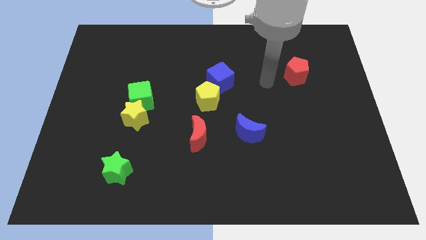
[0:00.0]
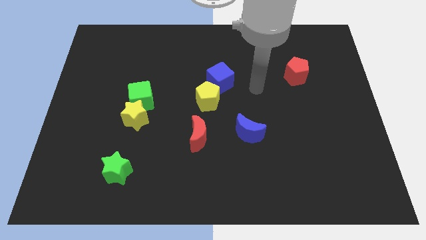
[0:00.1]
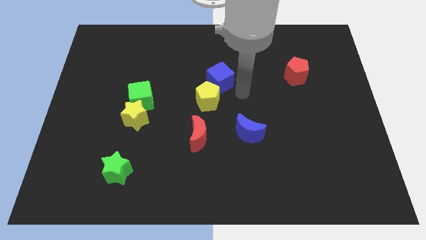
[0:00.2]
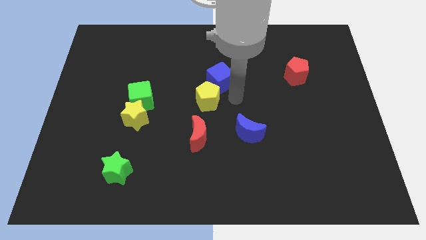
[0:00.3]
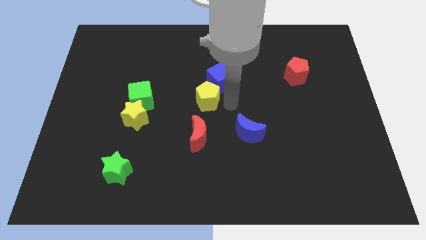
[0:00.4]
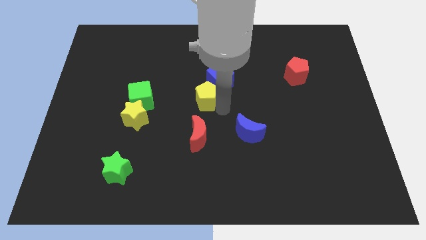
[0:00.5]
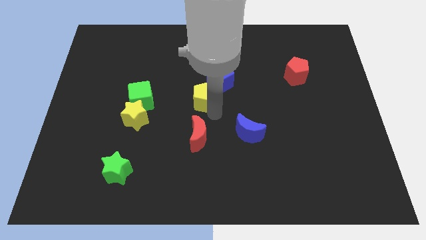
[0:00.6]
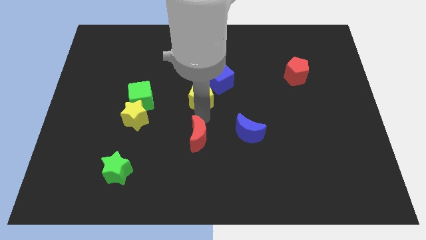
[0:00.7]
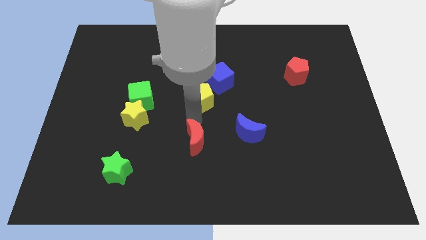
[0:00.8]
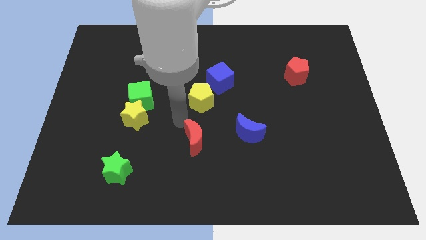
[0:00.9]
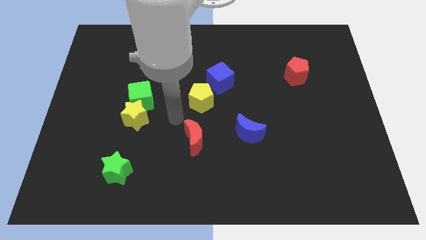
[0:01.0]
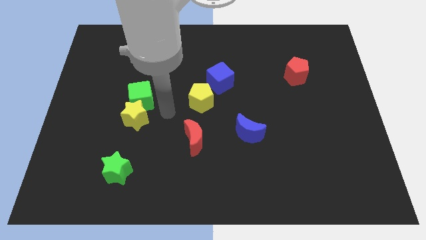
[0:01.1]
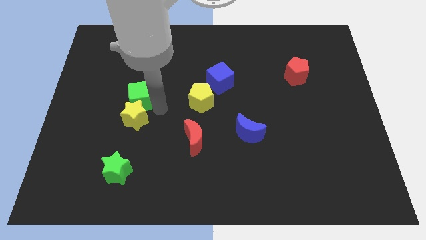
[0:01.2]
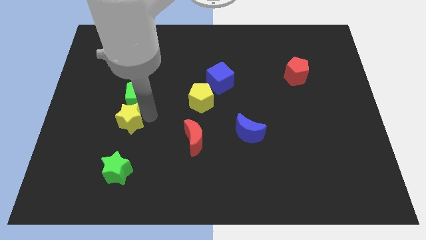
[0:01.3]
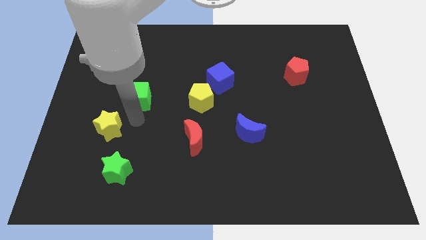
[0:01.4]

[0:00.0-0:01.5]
separate the green cube from the yellow star

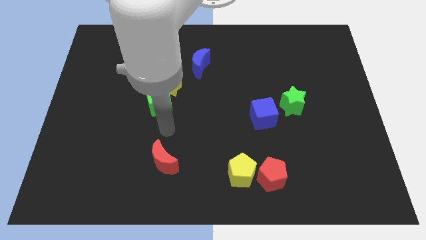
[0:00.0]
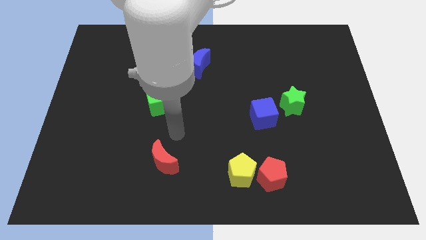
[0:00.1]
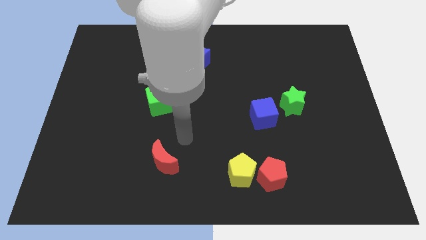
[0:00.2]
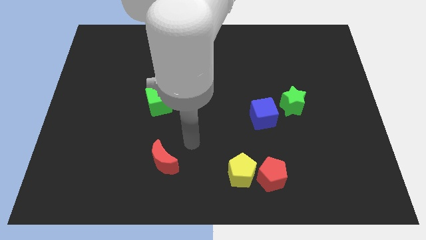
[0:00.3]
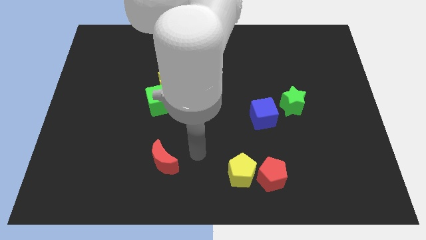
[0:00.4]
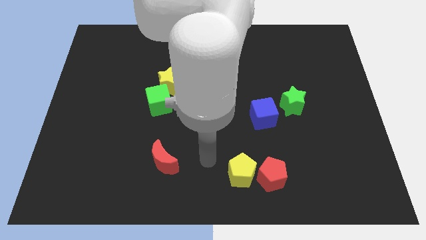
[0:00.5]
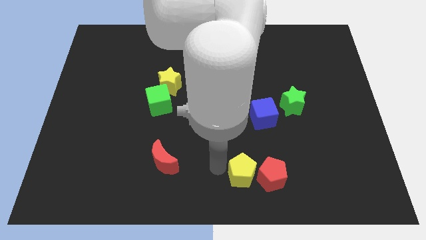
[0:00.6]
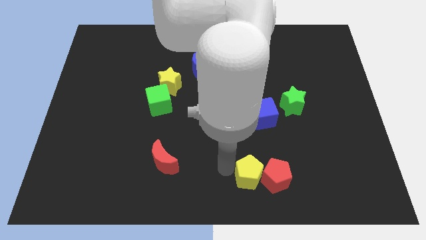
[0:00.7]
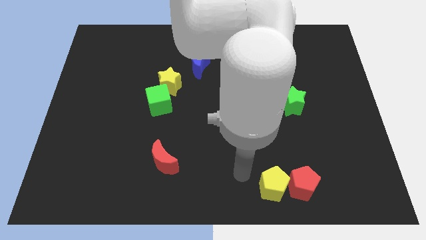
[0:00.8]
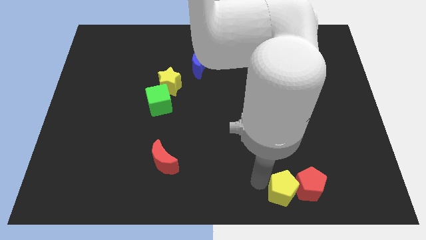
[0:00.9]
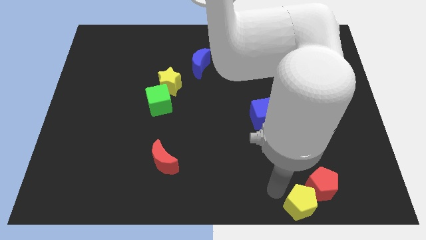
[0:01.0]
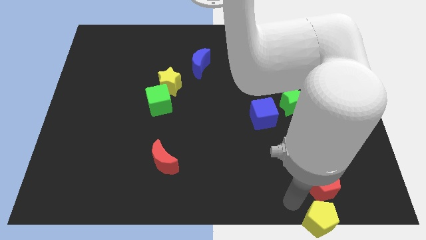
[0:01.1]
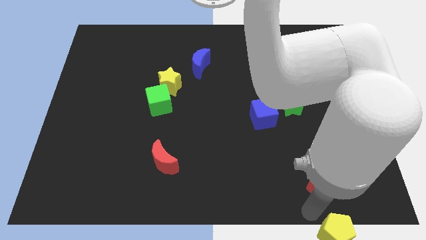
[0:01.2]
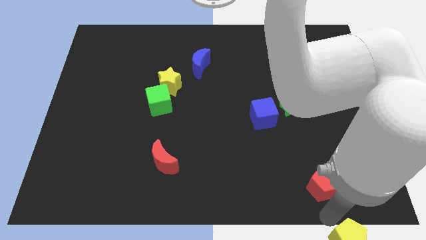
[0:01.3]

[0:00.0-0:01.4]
pull the red pentagon apart from the yellow pentagon

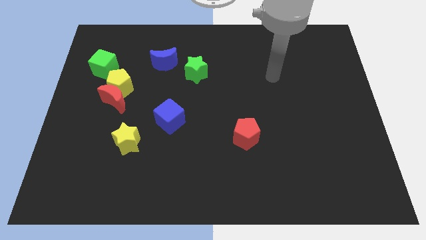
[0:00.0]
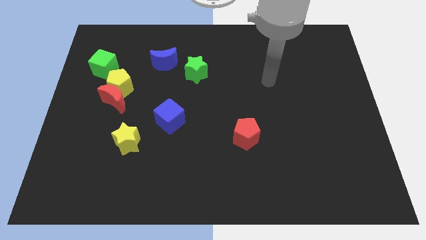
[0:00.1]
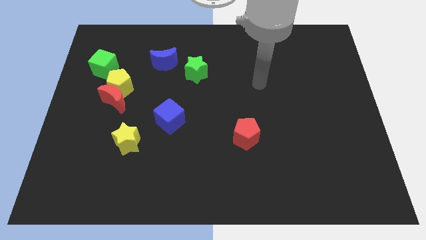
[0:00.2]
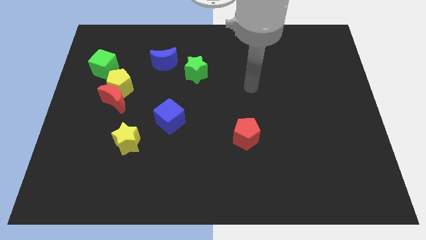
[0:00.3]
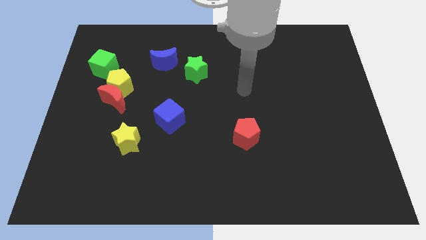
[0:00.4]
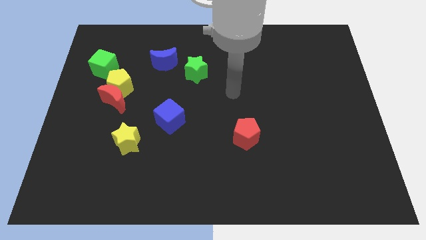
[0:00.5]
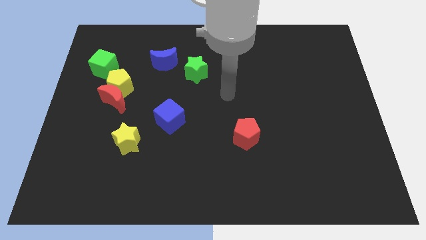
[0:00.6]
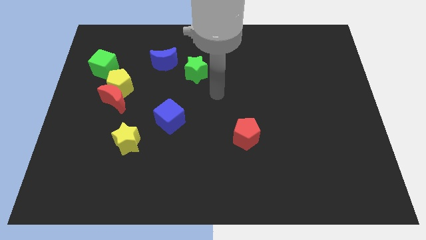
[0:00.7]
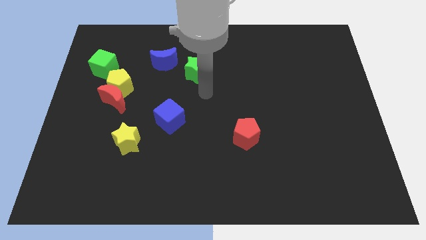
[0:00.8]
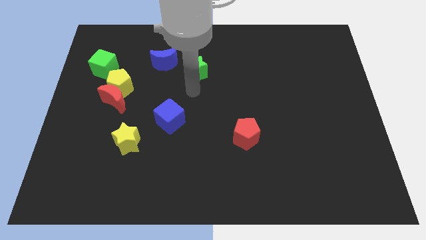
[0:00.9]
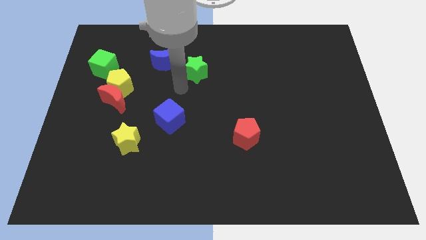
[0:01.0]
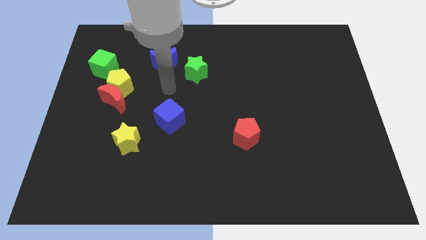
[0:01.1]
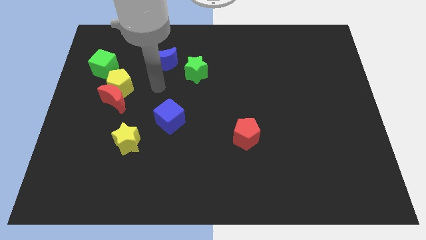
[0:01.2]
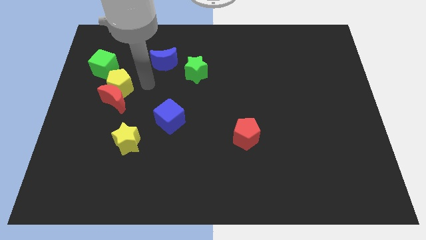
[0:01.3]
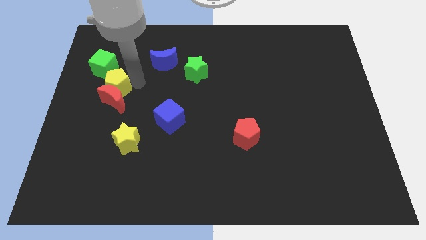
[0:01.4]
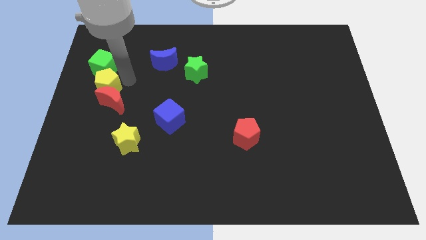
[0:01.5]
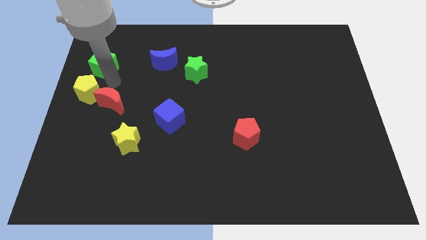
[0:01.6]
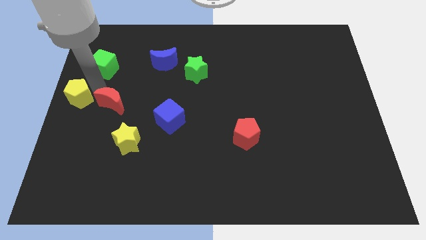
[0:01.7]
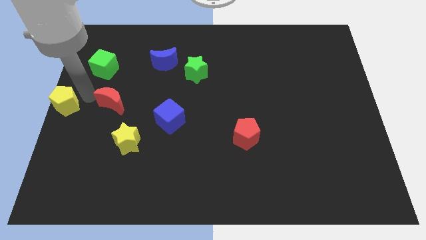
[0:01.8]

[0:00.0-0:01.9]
pull the red moon apart from the yellow pentagon

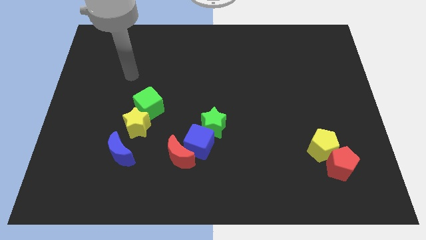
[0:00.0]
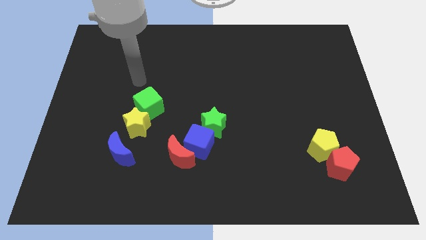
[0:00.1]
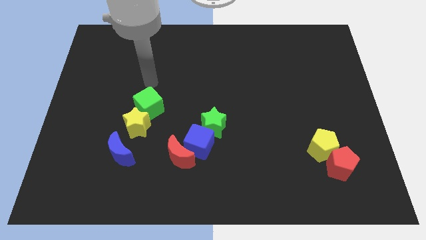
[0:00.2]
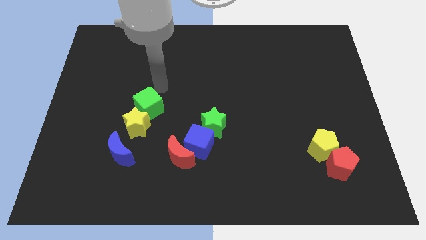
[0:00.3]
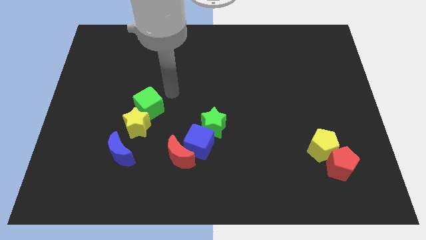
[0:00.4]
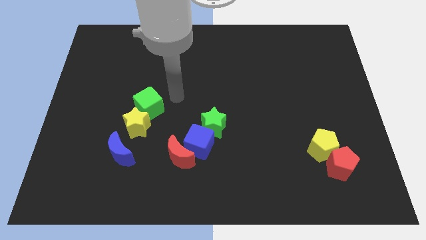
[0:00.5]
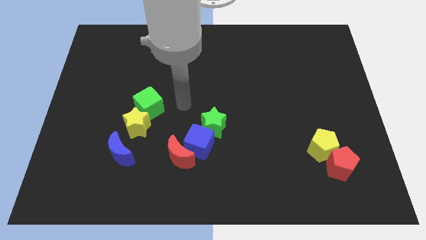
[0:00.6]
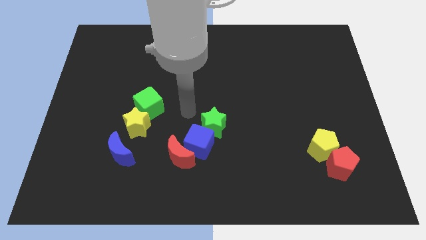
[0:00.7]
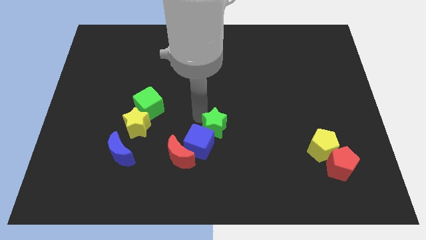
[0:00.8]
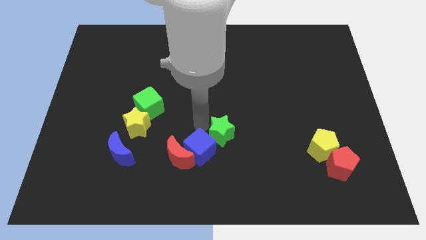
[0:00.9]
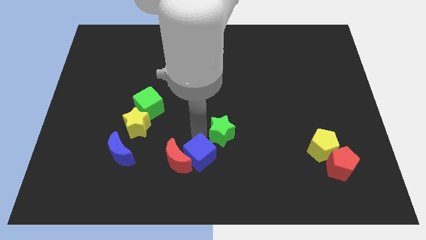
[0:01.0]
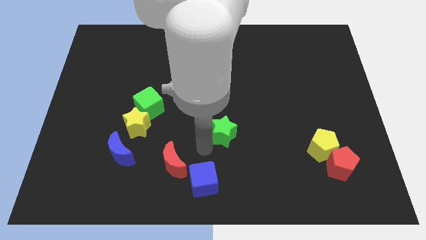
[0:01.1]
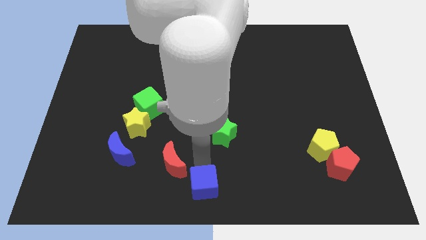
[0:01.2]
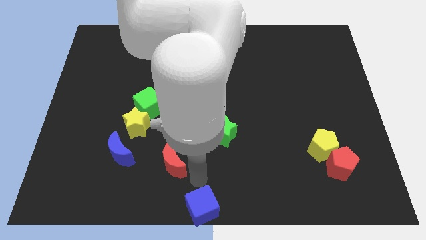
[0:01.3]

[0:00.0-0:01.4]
pull the red moon apart from the blue cube

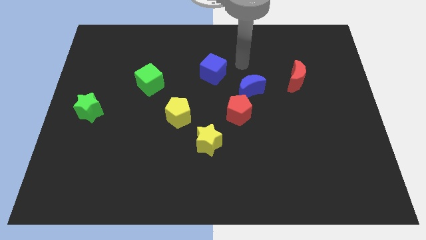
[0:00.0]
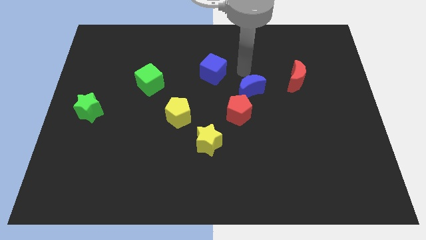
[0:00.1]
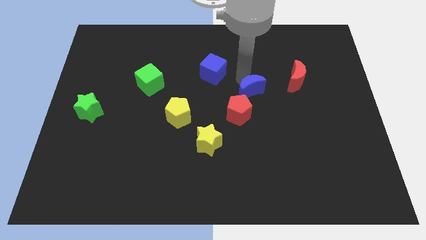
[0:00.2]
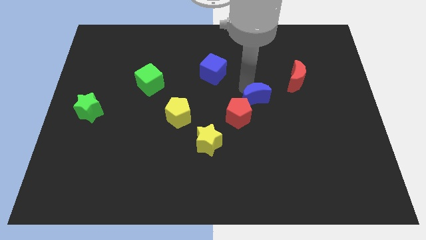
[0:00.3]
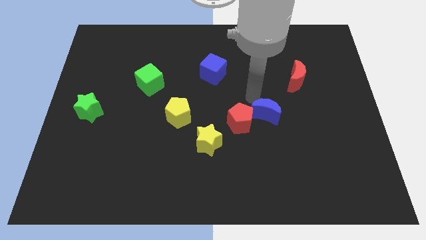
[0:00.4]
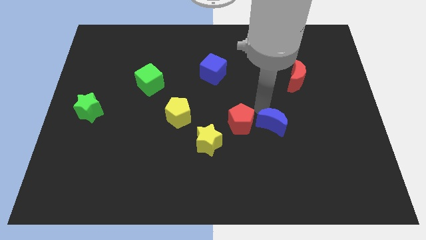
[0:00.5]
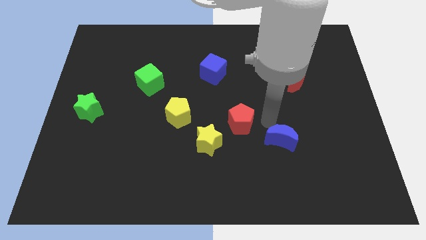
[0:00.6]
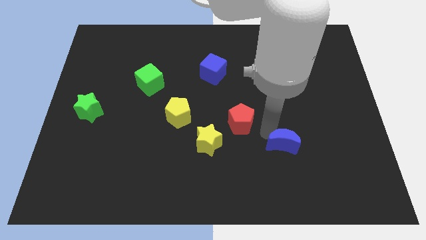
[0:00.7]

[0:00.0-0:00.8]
move the red pentagon away from the blue moon

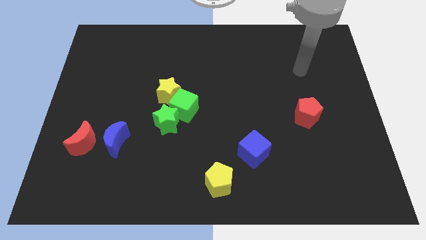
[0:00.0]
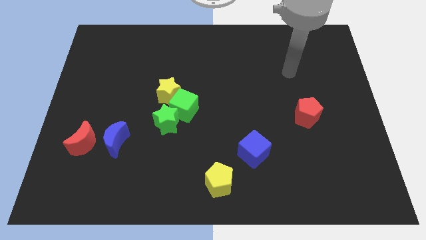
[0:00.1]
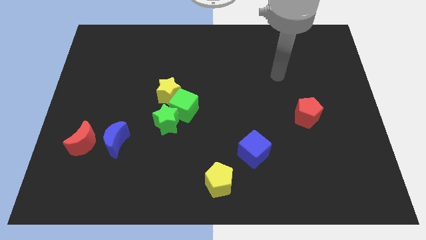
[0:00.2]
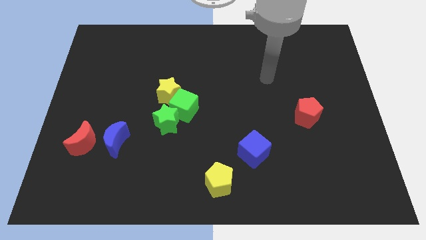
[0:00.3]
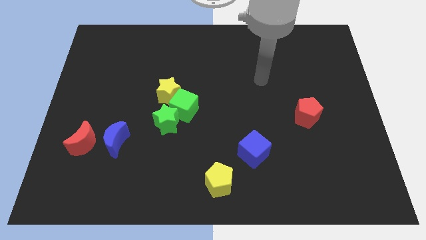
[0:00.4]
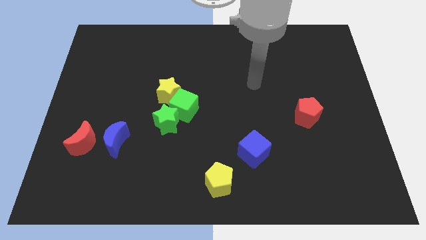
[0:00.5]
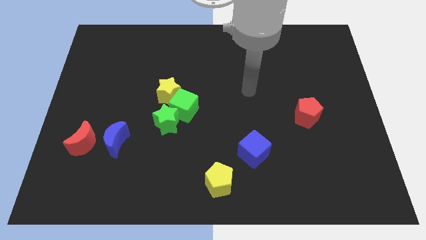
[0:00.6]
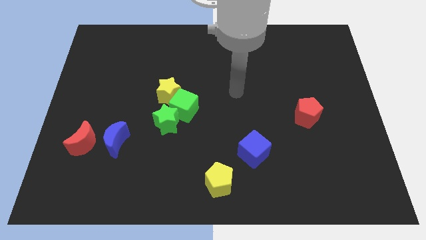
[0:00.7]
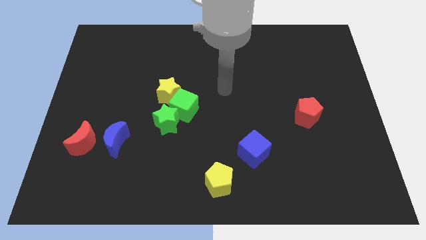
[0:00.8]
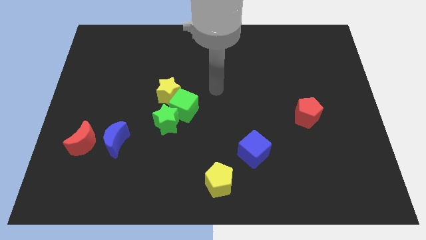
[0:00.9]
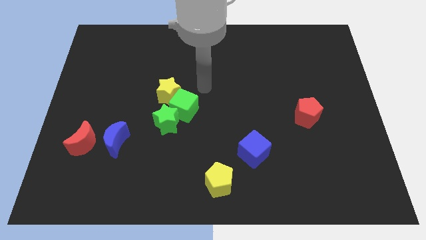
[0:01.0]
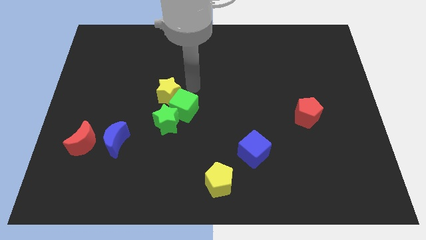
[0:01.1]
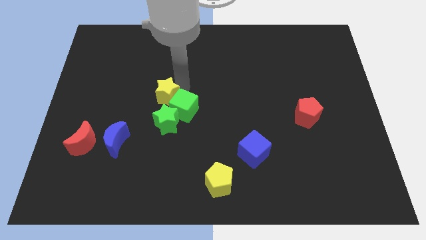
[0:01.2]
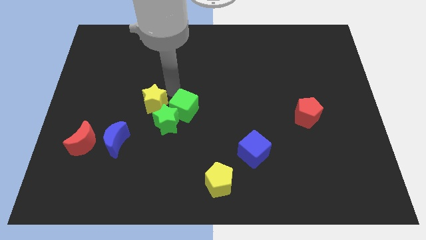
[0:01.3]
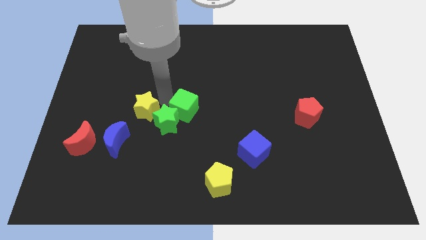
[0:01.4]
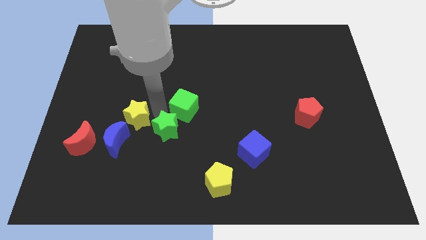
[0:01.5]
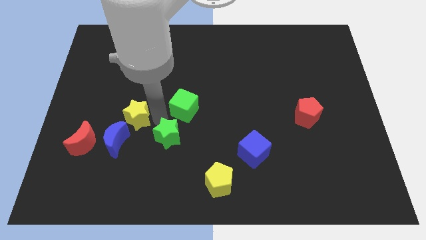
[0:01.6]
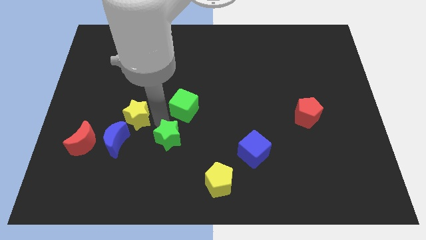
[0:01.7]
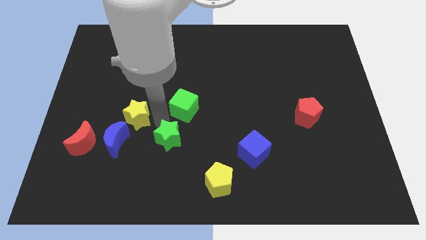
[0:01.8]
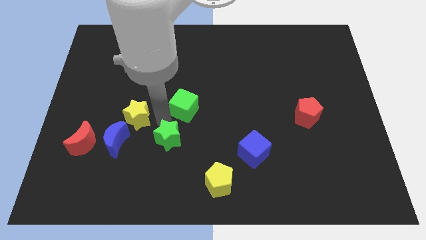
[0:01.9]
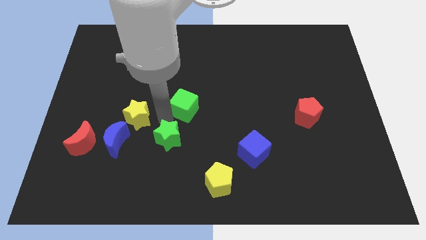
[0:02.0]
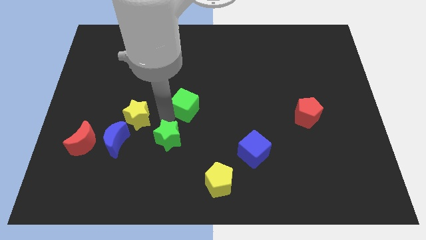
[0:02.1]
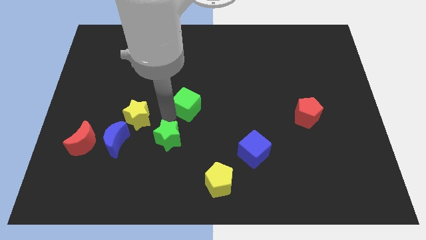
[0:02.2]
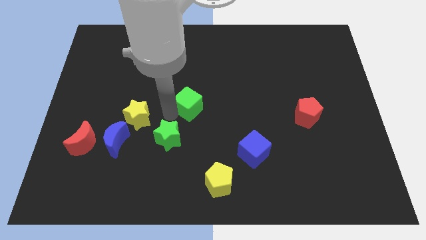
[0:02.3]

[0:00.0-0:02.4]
pull the green cube apart from the yellow star and green star
